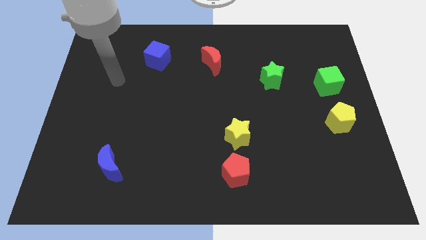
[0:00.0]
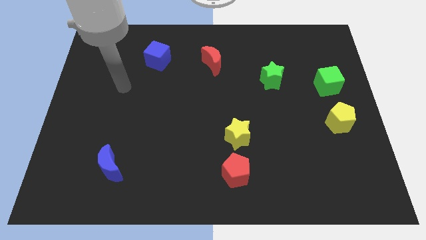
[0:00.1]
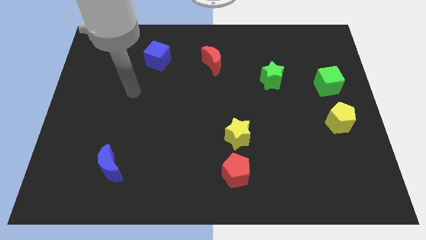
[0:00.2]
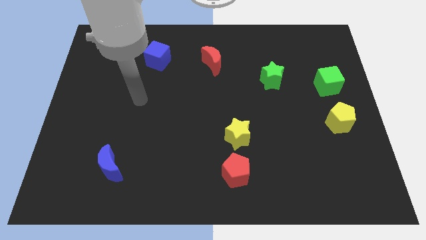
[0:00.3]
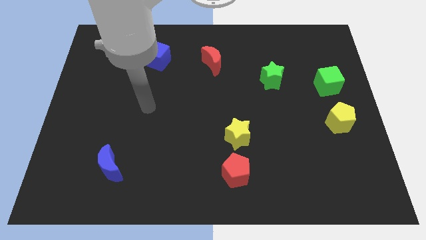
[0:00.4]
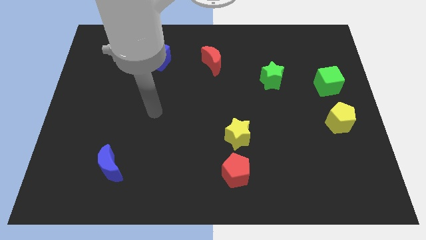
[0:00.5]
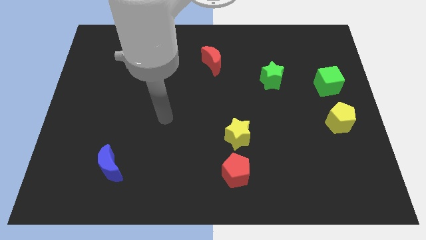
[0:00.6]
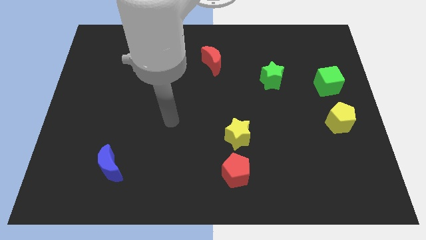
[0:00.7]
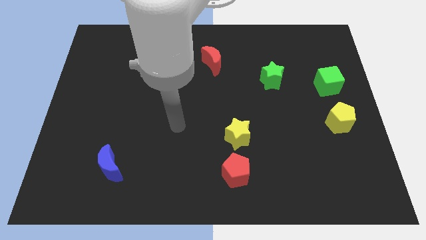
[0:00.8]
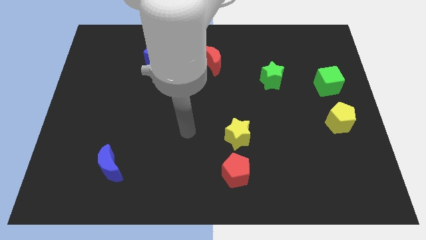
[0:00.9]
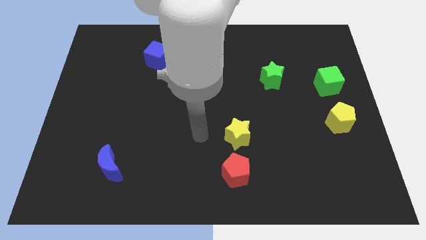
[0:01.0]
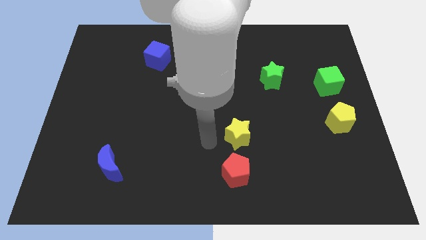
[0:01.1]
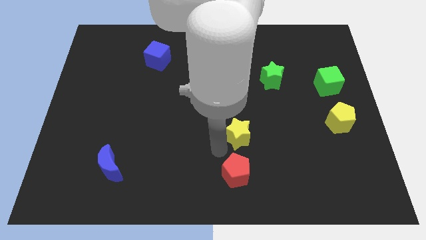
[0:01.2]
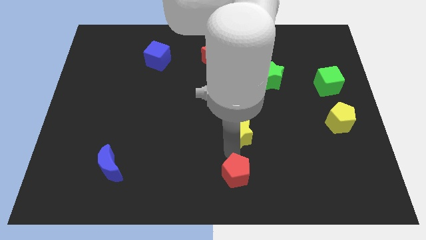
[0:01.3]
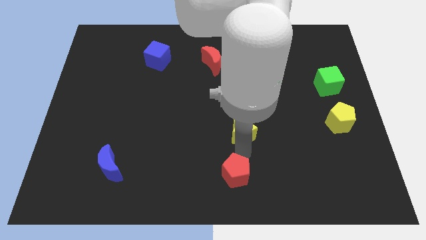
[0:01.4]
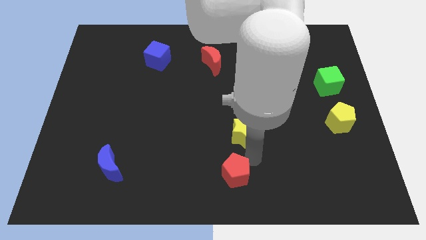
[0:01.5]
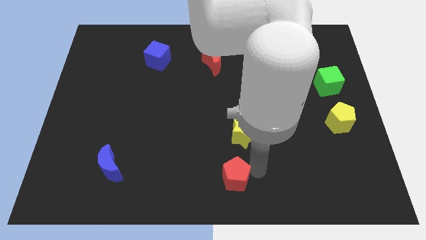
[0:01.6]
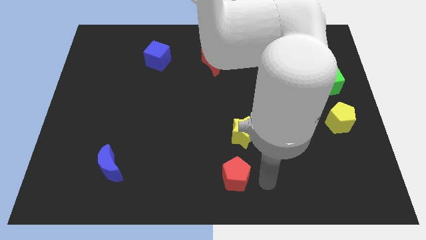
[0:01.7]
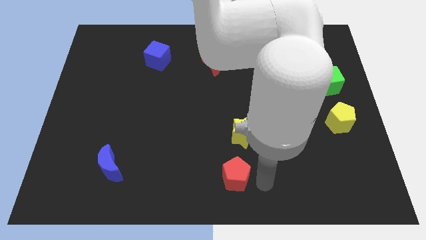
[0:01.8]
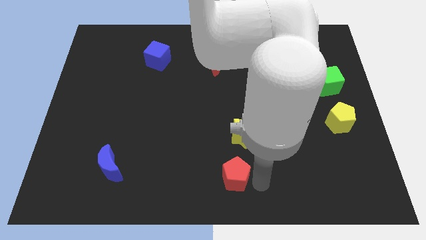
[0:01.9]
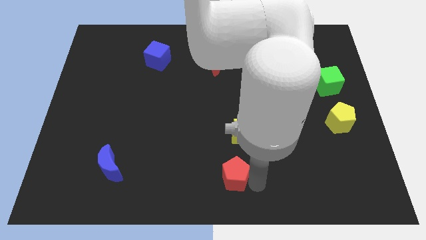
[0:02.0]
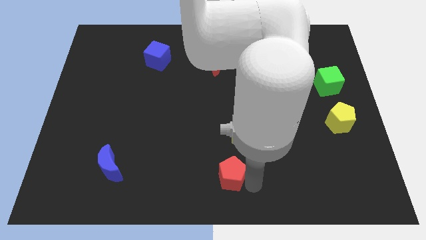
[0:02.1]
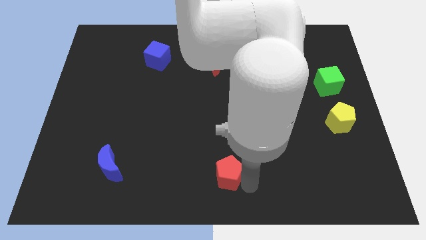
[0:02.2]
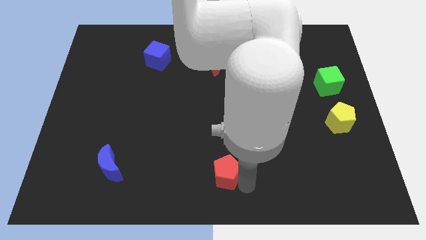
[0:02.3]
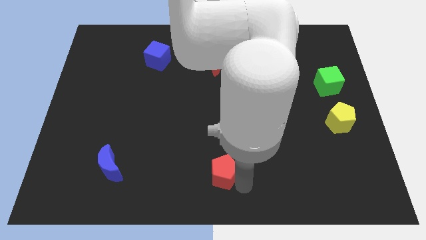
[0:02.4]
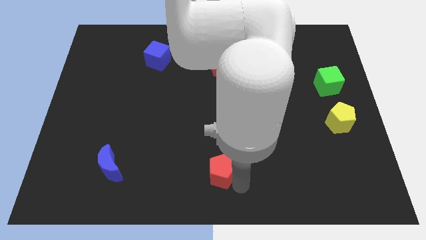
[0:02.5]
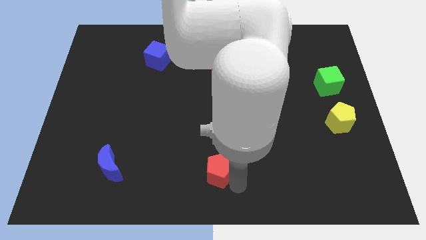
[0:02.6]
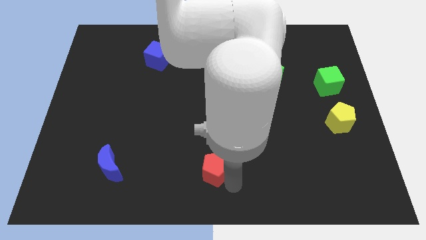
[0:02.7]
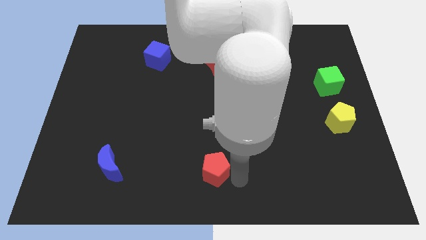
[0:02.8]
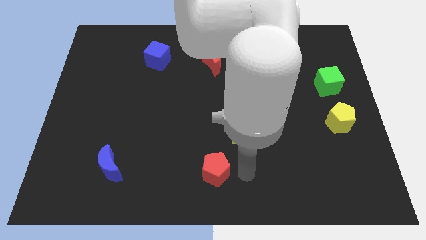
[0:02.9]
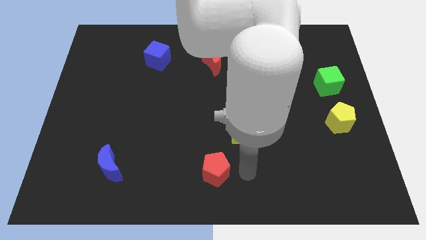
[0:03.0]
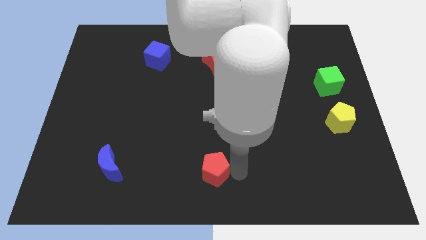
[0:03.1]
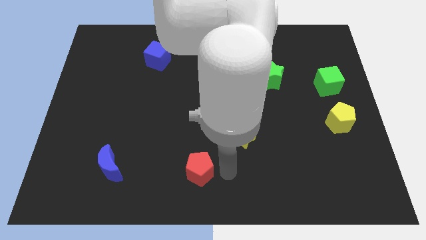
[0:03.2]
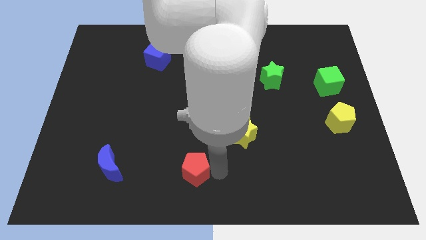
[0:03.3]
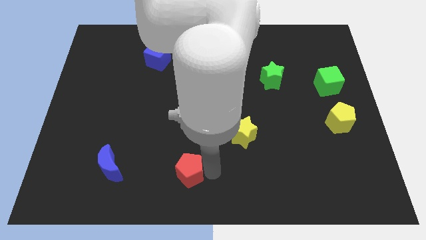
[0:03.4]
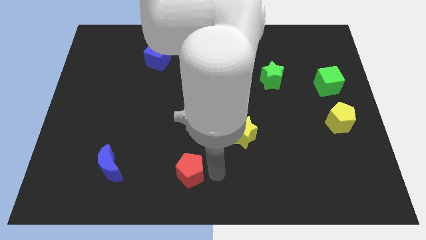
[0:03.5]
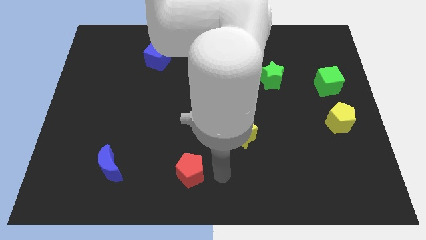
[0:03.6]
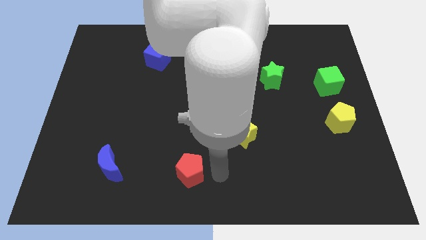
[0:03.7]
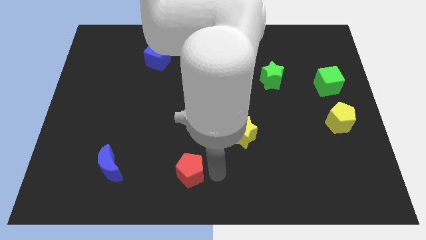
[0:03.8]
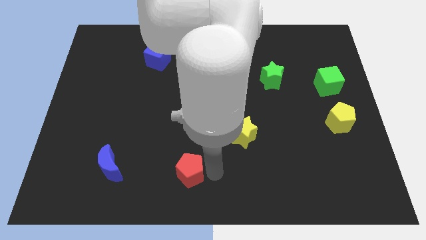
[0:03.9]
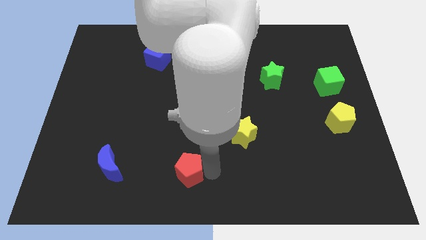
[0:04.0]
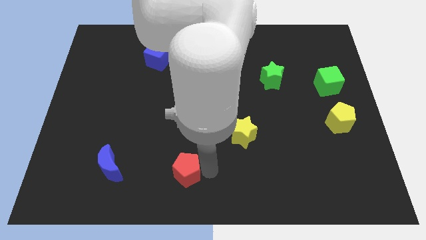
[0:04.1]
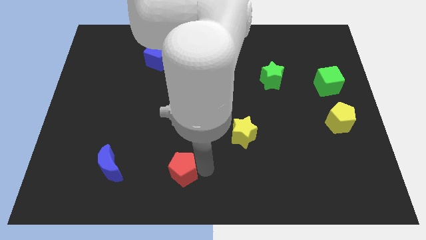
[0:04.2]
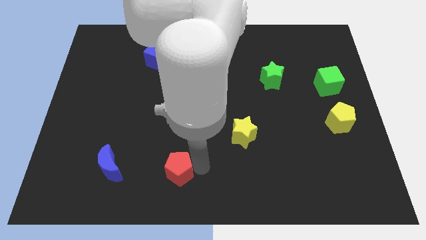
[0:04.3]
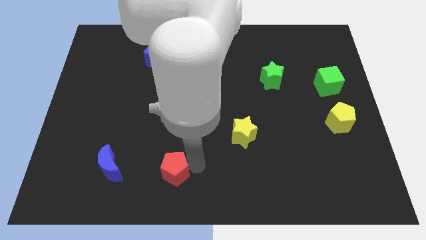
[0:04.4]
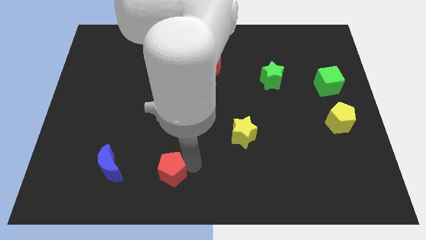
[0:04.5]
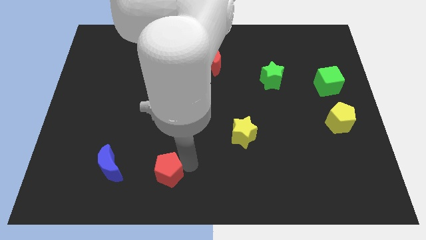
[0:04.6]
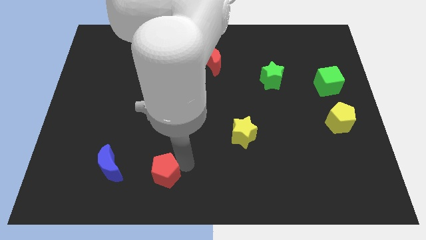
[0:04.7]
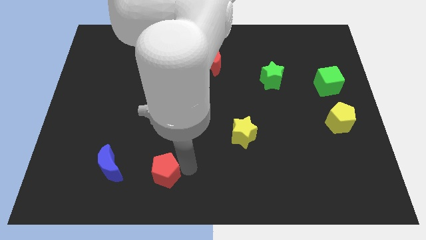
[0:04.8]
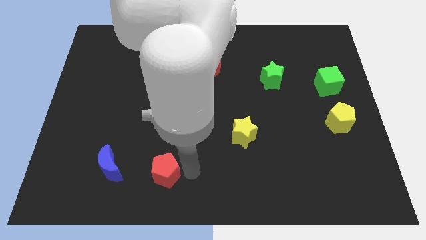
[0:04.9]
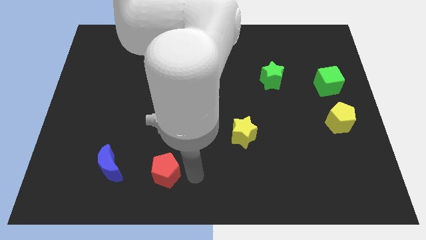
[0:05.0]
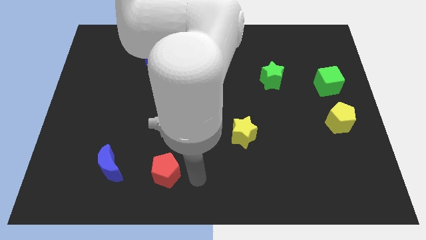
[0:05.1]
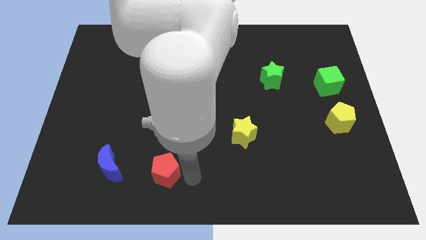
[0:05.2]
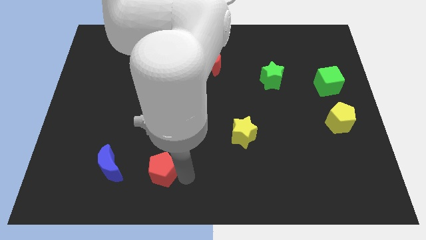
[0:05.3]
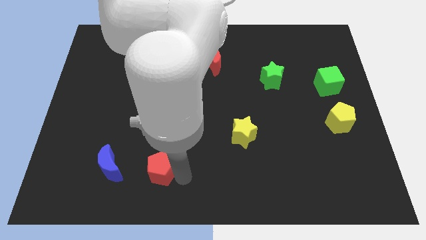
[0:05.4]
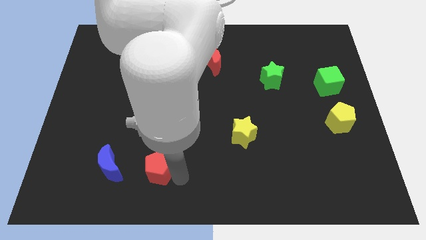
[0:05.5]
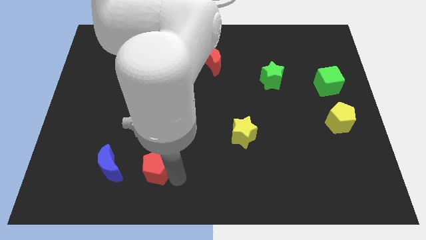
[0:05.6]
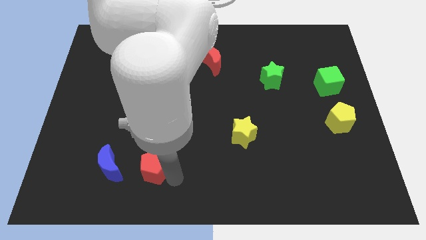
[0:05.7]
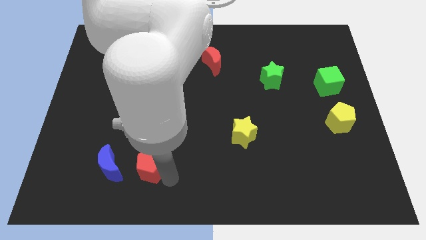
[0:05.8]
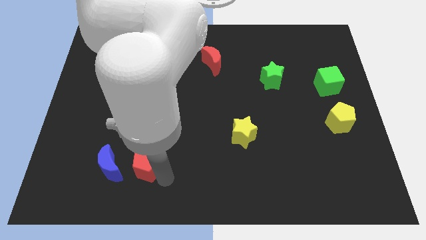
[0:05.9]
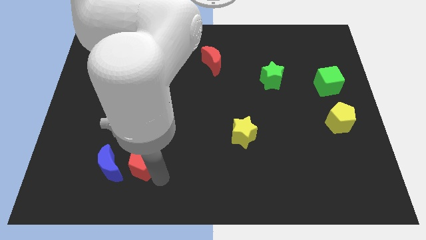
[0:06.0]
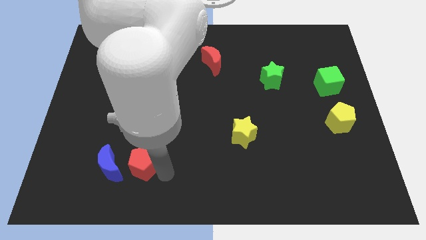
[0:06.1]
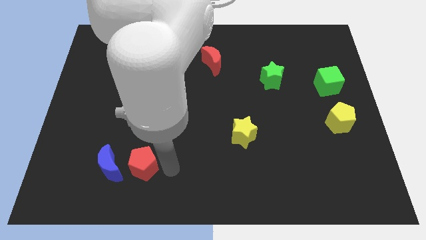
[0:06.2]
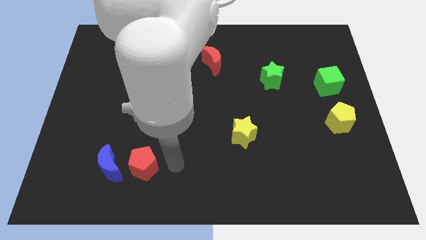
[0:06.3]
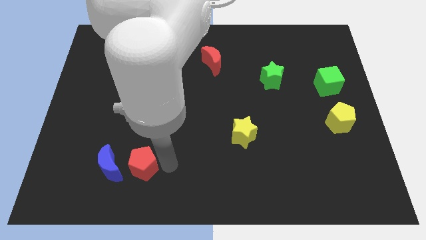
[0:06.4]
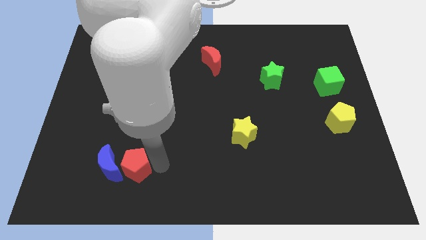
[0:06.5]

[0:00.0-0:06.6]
move the red pentagon towards the blue moon

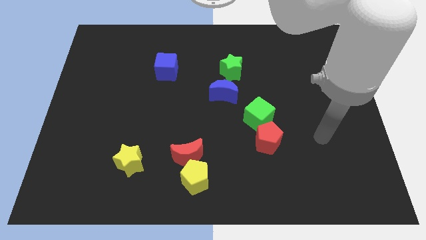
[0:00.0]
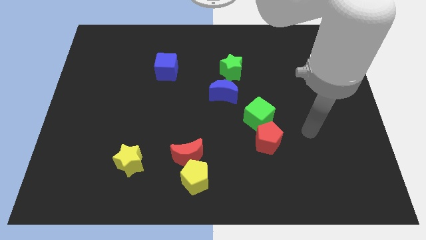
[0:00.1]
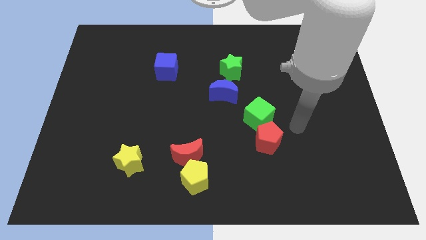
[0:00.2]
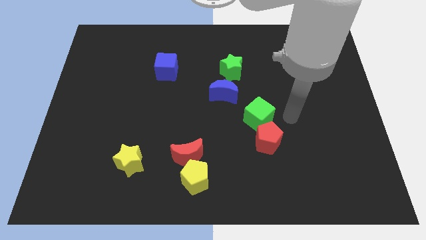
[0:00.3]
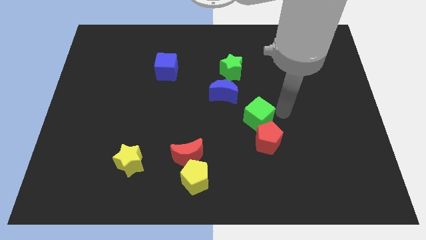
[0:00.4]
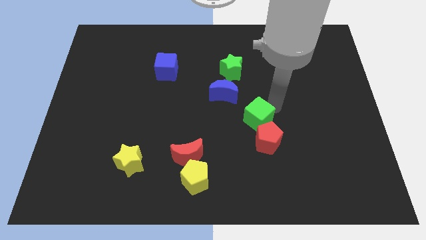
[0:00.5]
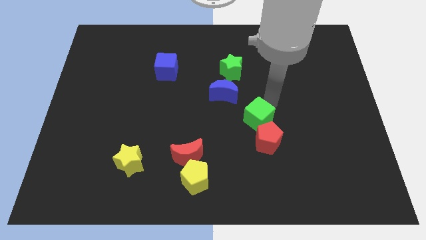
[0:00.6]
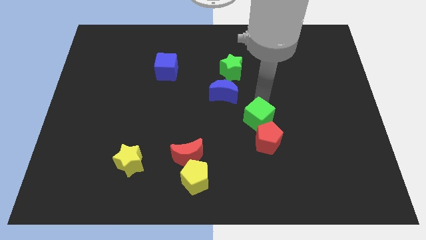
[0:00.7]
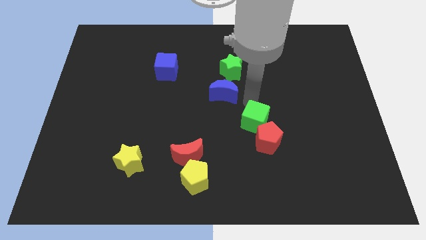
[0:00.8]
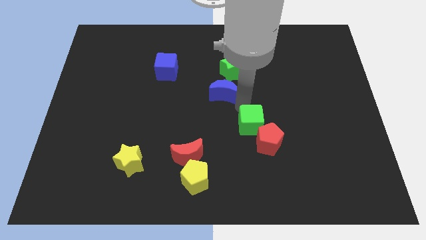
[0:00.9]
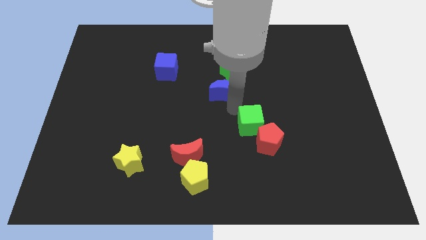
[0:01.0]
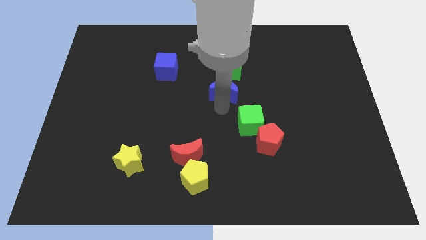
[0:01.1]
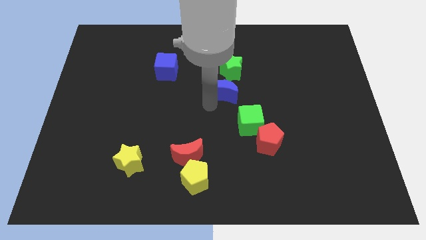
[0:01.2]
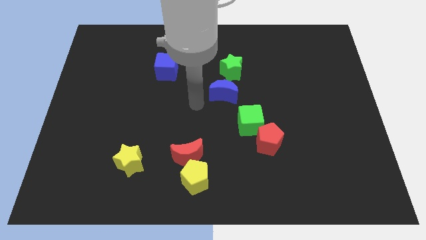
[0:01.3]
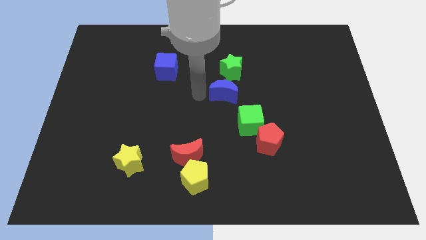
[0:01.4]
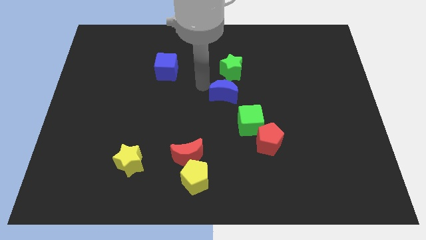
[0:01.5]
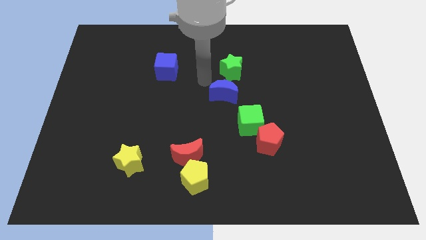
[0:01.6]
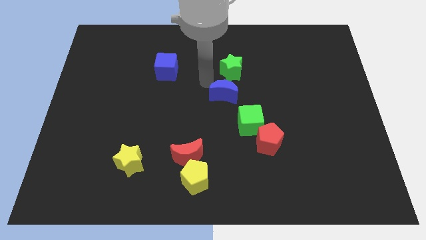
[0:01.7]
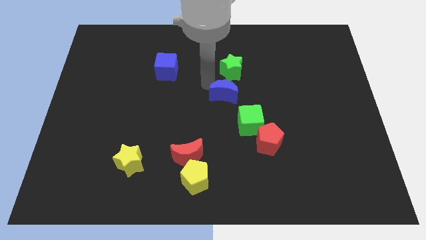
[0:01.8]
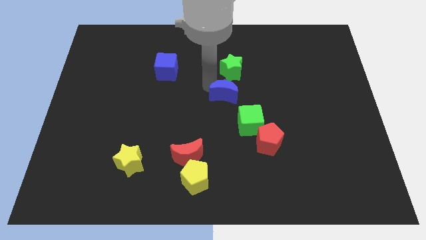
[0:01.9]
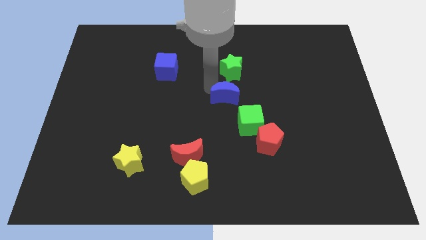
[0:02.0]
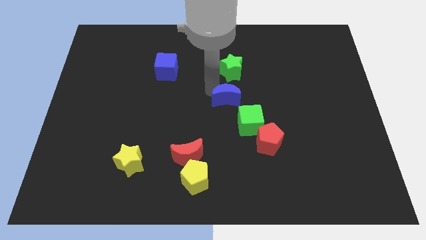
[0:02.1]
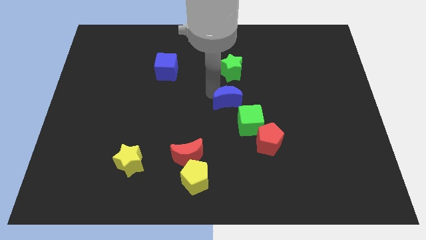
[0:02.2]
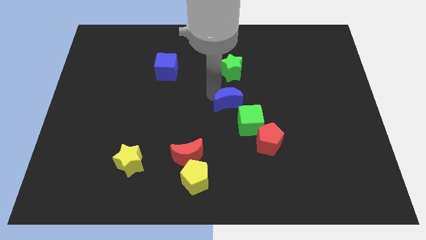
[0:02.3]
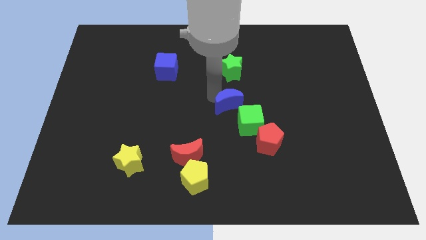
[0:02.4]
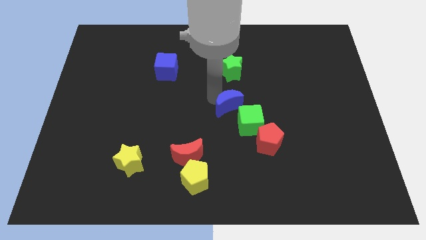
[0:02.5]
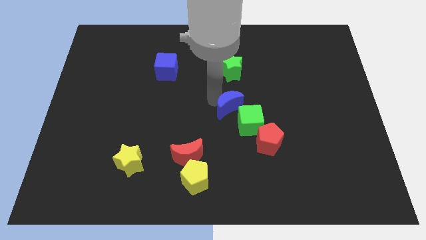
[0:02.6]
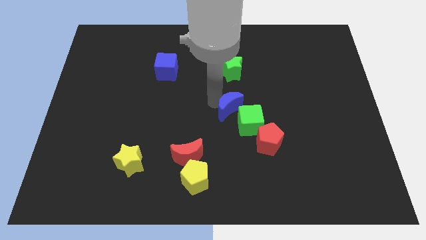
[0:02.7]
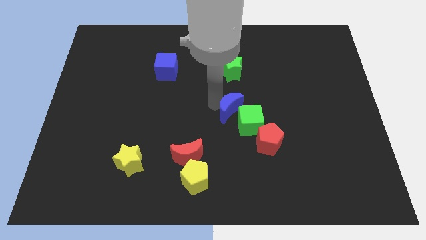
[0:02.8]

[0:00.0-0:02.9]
put the blue moon next to the green cube
